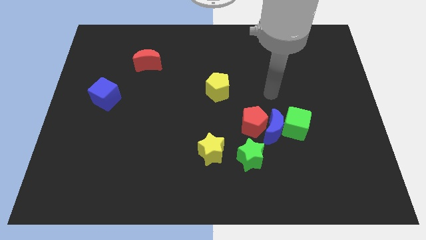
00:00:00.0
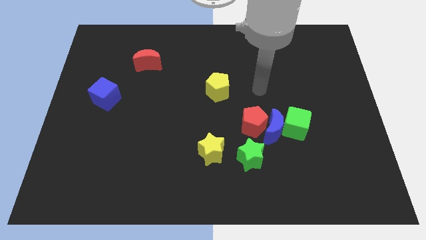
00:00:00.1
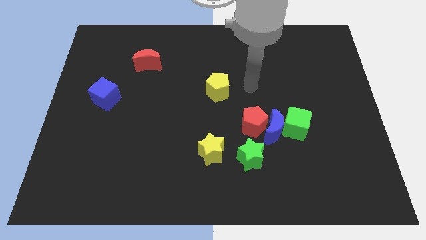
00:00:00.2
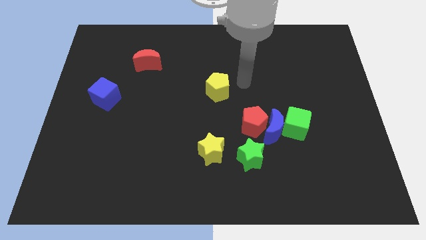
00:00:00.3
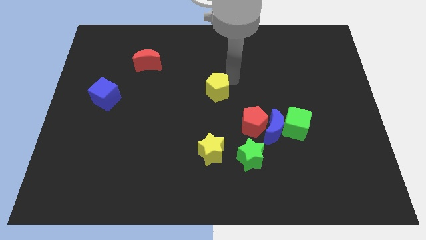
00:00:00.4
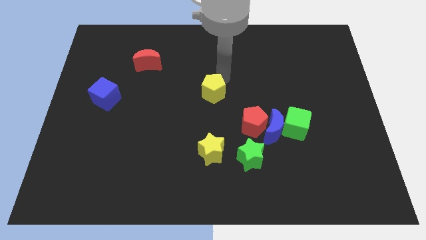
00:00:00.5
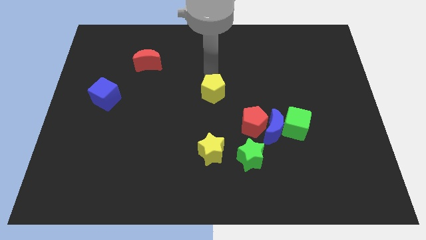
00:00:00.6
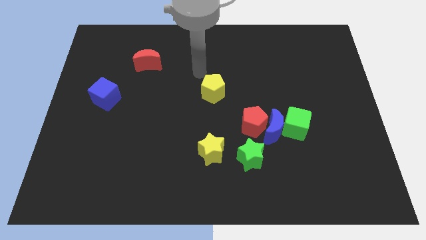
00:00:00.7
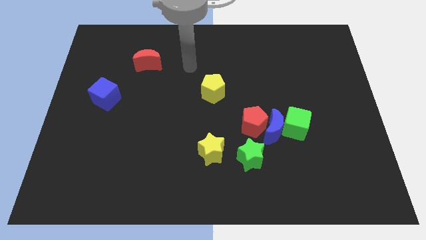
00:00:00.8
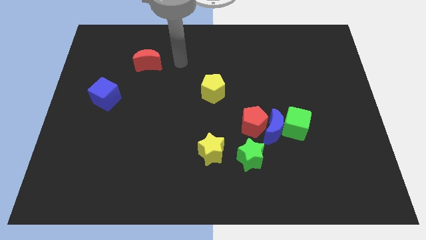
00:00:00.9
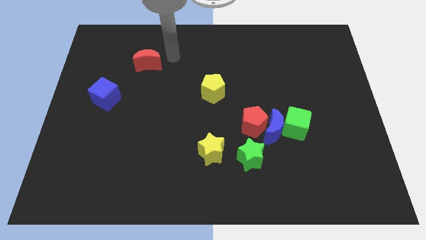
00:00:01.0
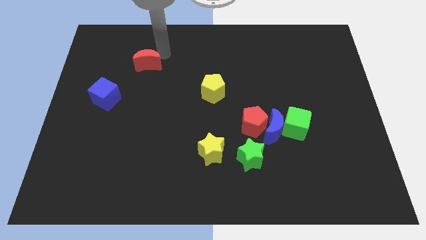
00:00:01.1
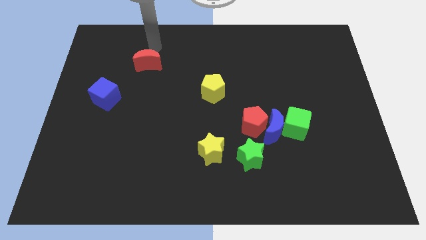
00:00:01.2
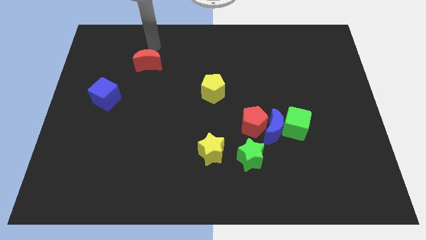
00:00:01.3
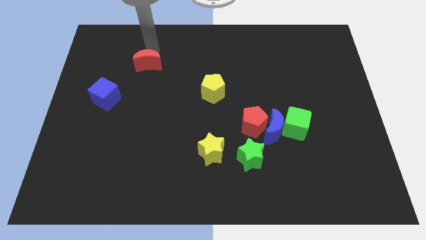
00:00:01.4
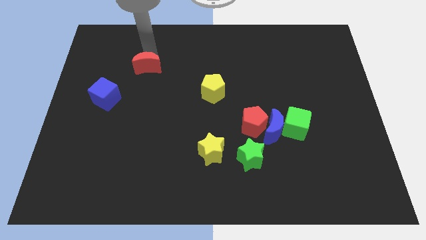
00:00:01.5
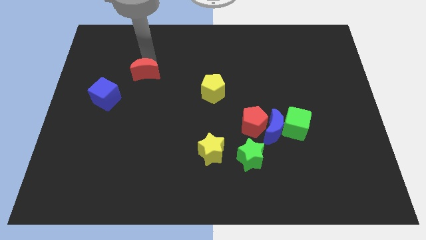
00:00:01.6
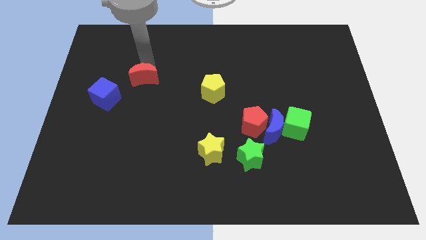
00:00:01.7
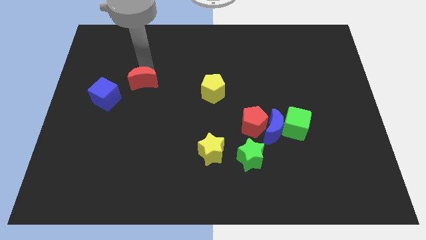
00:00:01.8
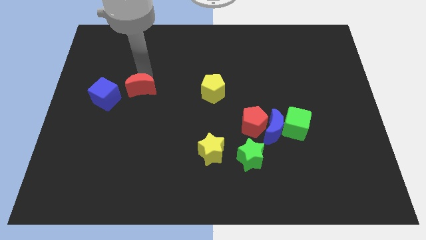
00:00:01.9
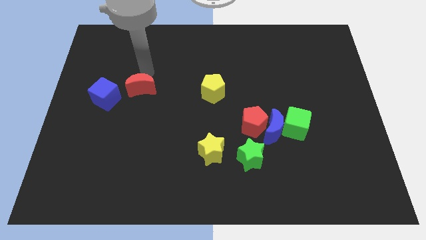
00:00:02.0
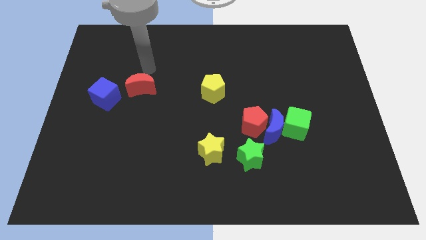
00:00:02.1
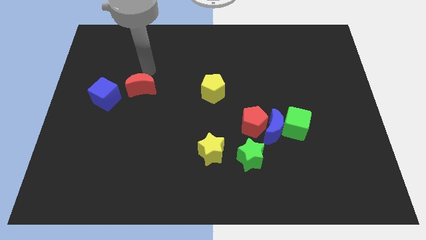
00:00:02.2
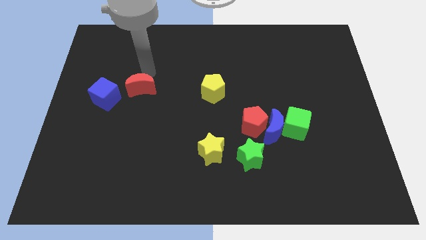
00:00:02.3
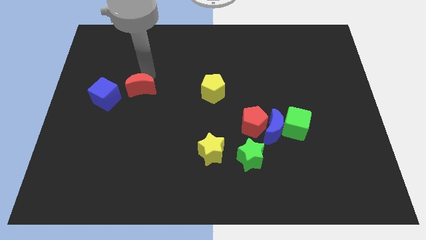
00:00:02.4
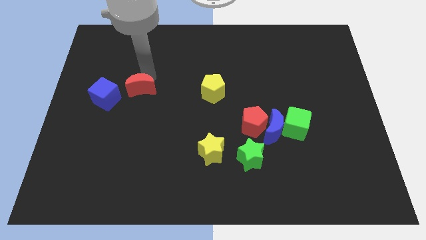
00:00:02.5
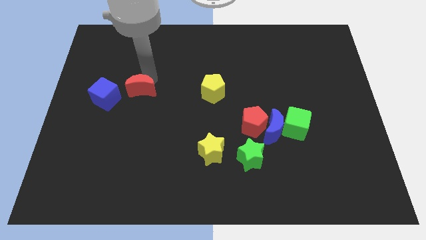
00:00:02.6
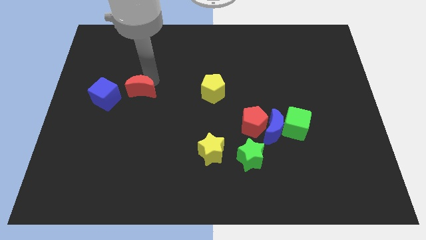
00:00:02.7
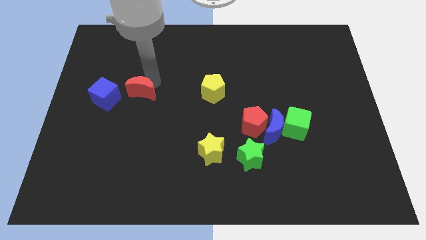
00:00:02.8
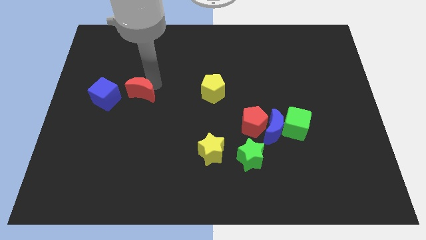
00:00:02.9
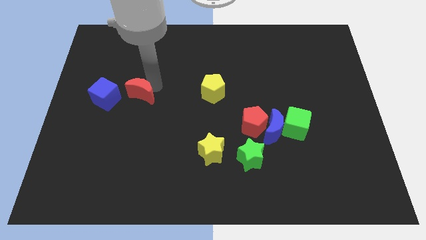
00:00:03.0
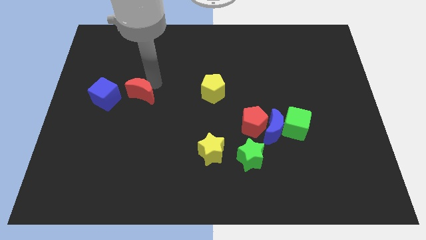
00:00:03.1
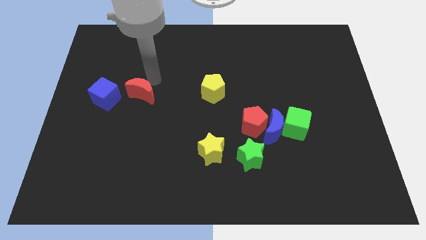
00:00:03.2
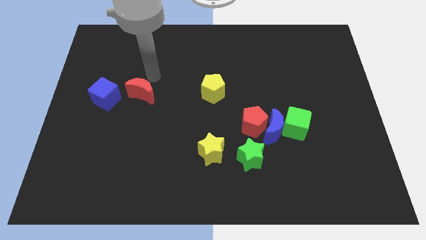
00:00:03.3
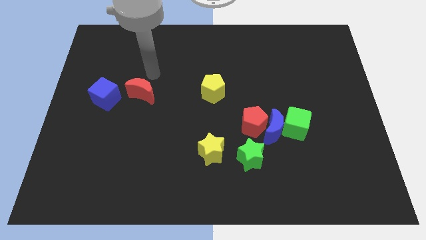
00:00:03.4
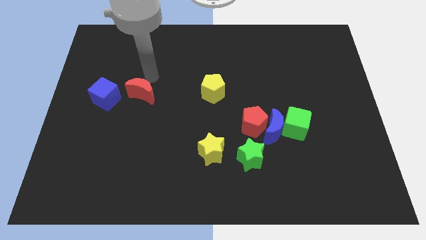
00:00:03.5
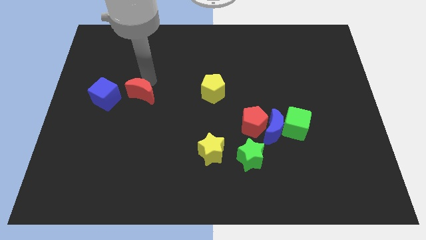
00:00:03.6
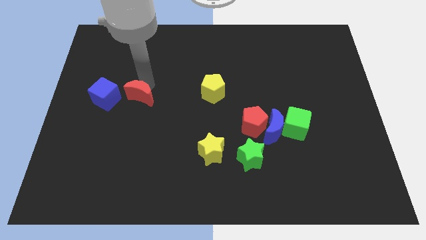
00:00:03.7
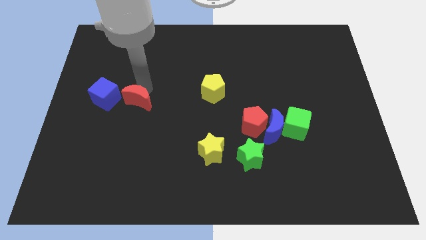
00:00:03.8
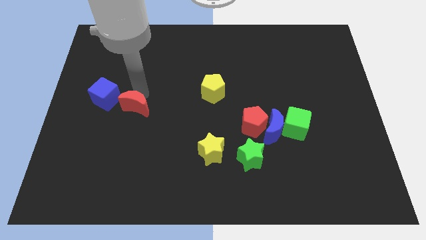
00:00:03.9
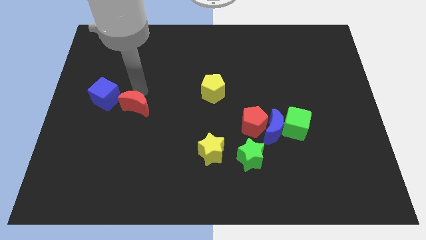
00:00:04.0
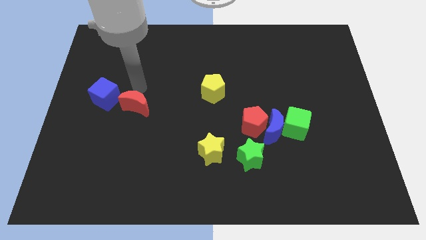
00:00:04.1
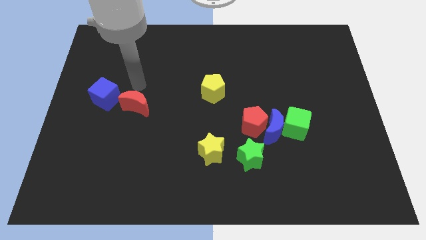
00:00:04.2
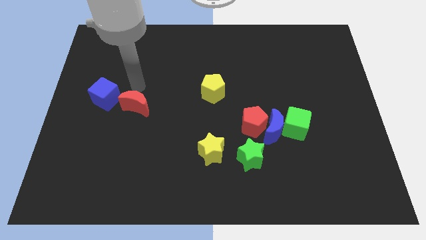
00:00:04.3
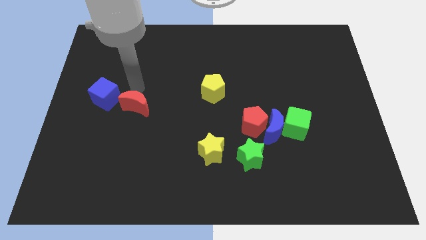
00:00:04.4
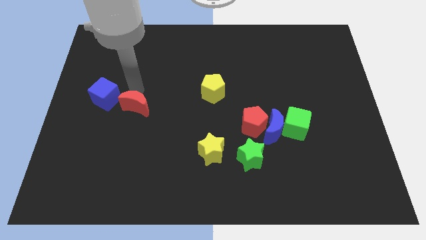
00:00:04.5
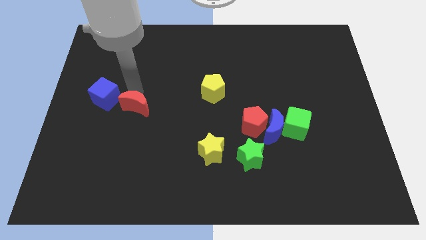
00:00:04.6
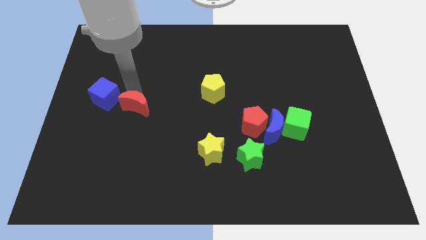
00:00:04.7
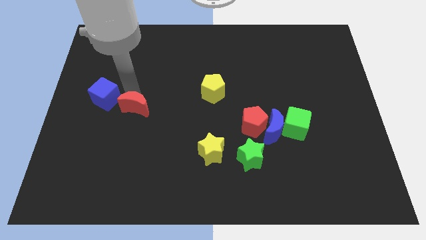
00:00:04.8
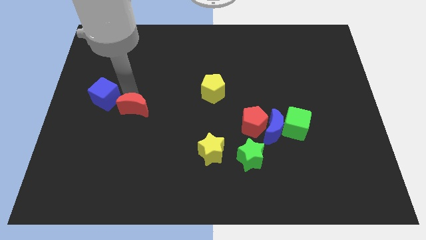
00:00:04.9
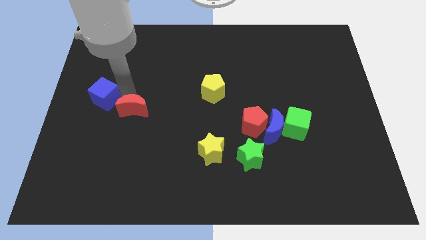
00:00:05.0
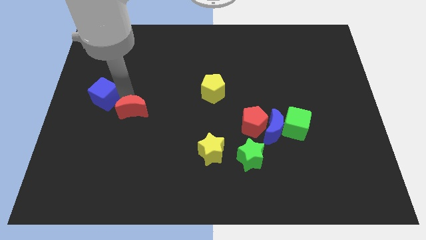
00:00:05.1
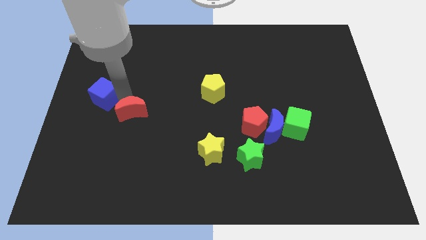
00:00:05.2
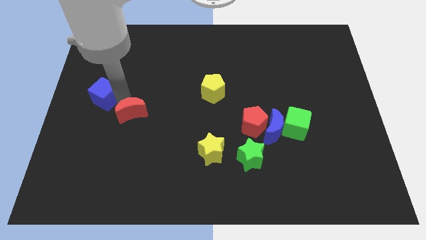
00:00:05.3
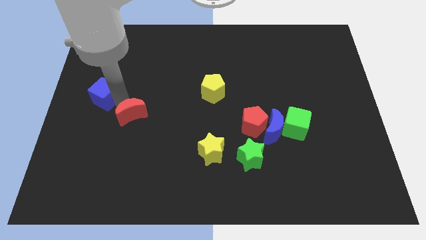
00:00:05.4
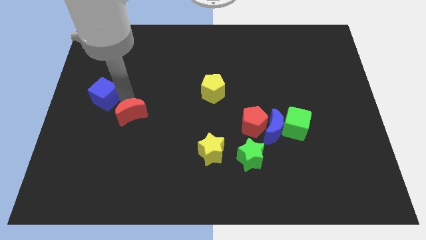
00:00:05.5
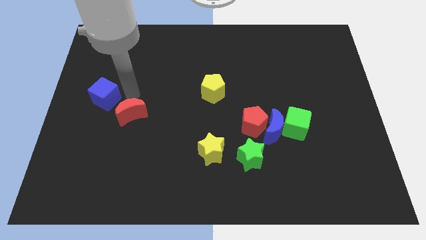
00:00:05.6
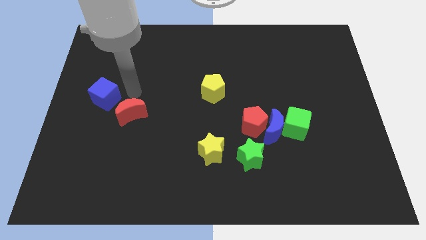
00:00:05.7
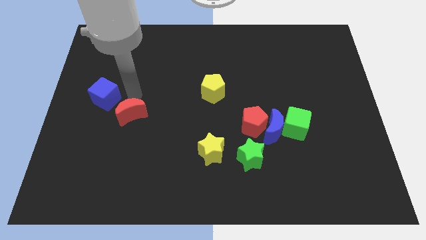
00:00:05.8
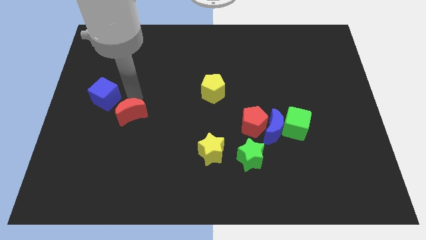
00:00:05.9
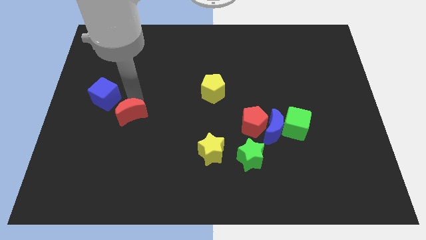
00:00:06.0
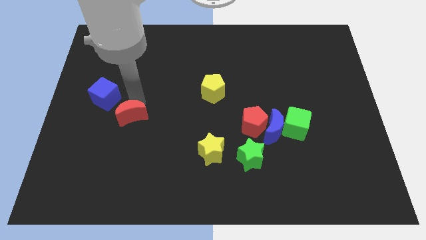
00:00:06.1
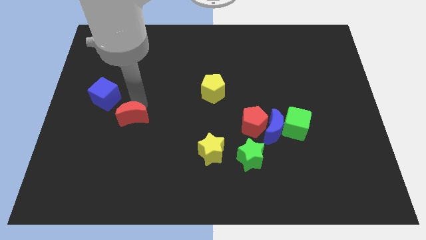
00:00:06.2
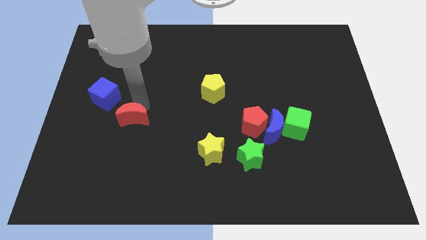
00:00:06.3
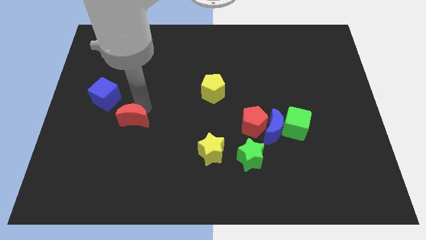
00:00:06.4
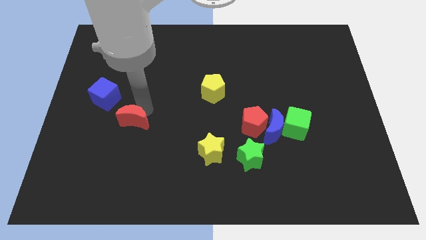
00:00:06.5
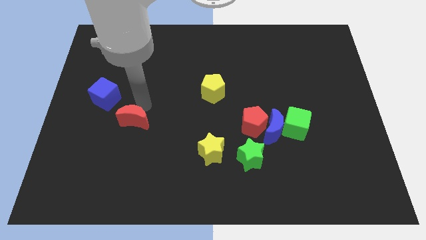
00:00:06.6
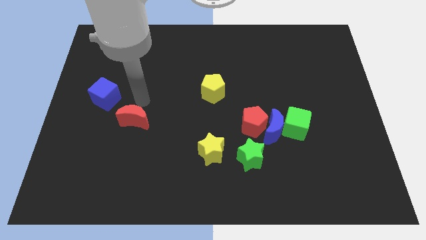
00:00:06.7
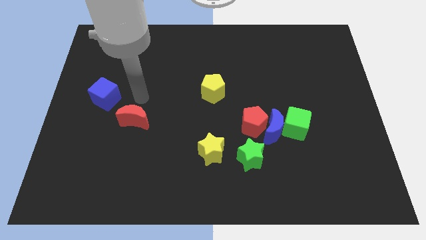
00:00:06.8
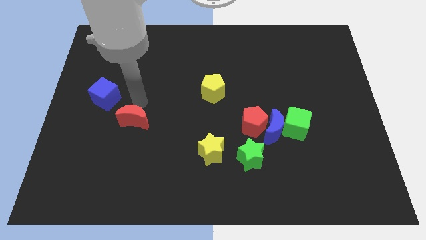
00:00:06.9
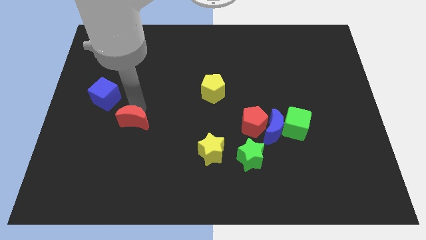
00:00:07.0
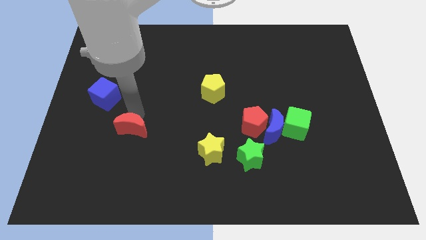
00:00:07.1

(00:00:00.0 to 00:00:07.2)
move the red moon downwards

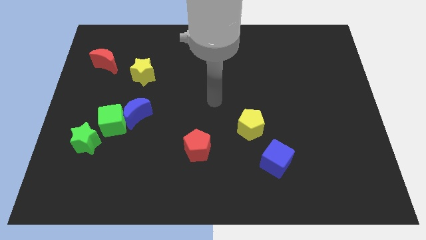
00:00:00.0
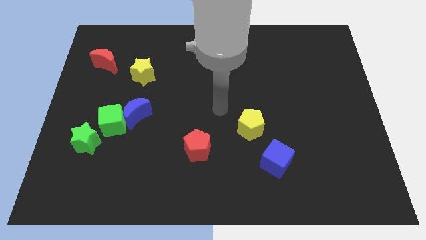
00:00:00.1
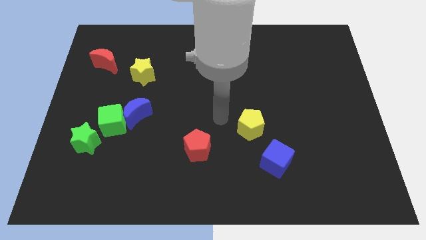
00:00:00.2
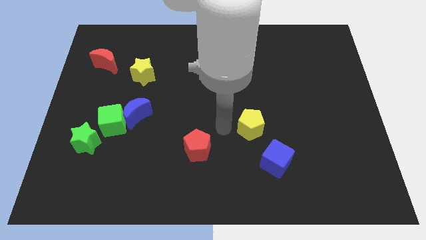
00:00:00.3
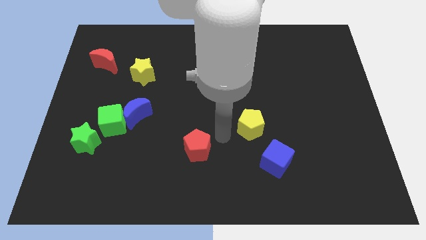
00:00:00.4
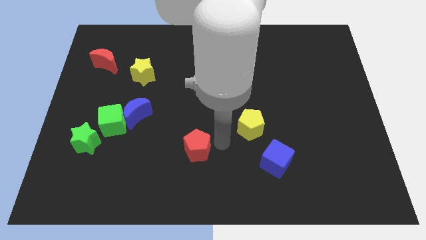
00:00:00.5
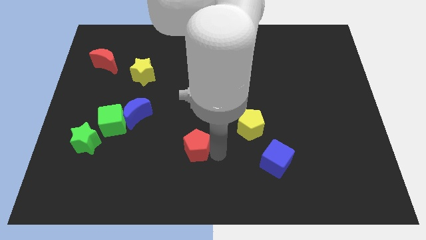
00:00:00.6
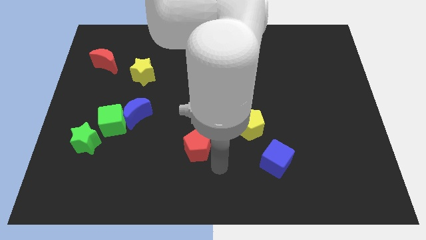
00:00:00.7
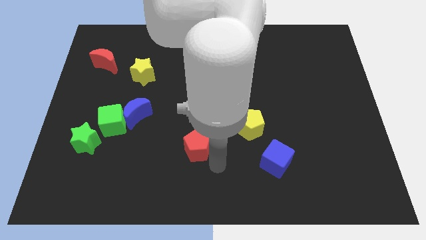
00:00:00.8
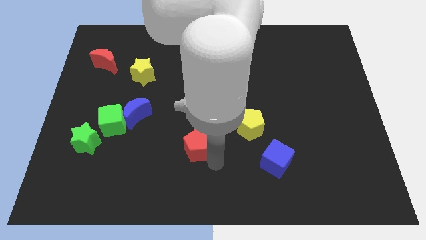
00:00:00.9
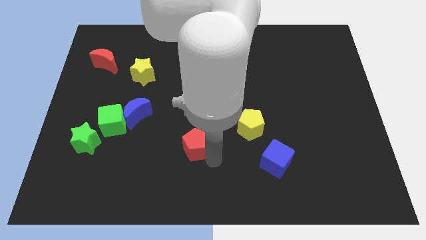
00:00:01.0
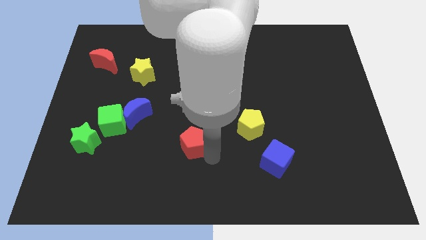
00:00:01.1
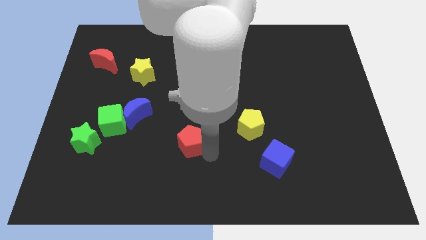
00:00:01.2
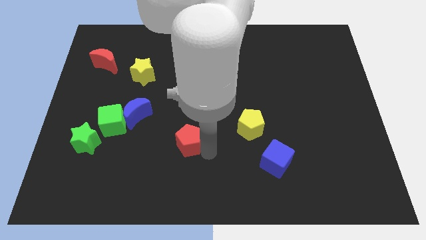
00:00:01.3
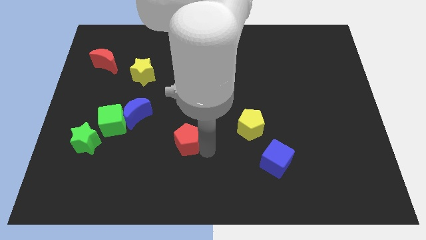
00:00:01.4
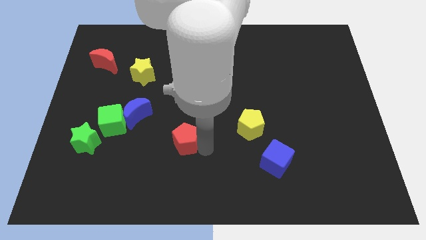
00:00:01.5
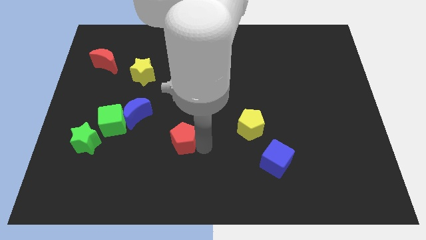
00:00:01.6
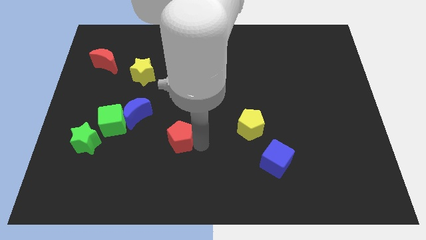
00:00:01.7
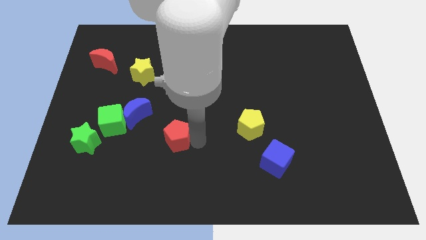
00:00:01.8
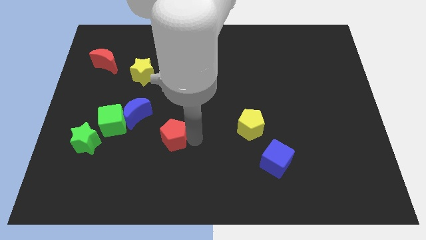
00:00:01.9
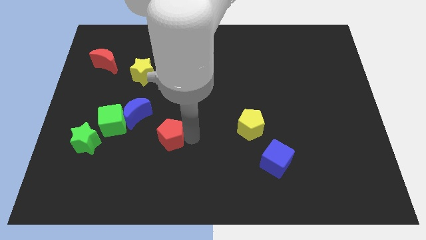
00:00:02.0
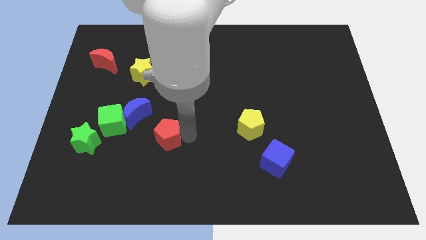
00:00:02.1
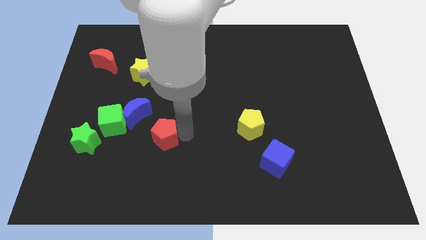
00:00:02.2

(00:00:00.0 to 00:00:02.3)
slightly push the red pentagon upwards and then to the left
